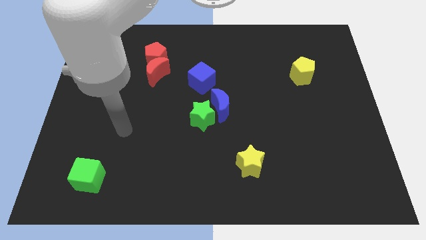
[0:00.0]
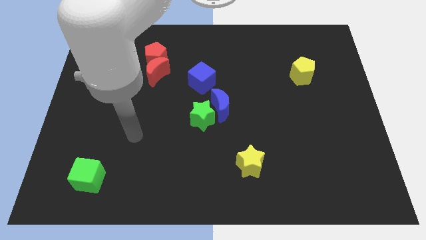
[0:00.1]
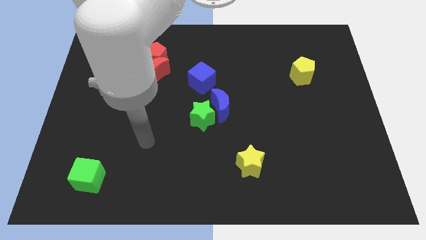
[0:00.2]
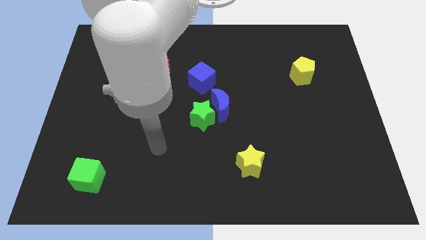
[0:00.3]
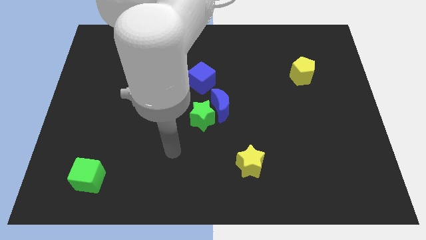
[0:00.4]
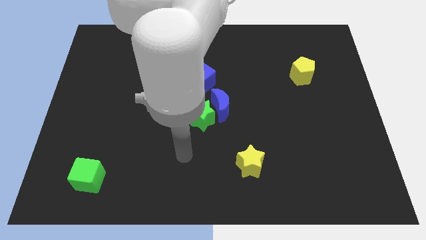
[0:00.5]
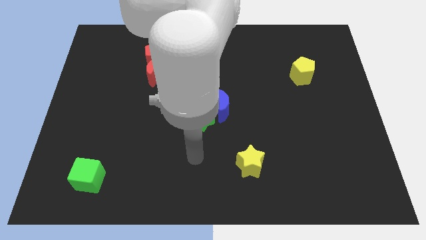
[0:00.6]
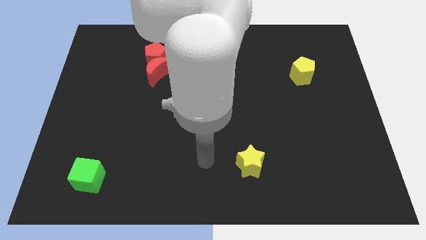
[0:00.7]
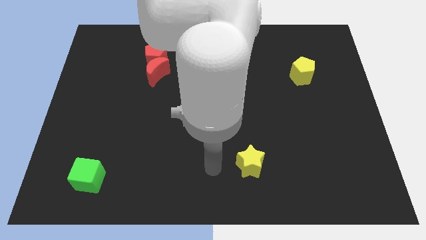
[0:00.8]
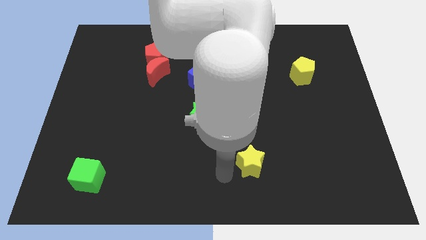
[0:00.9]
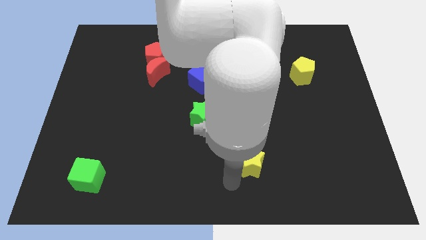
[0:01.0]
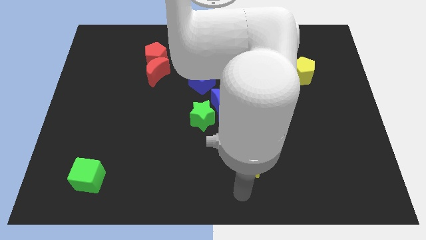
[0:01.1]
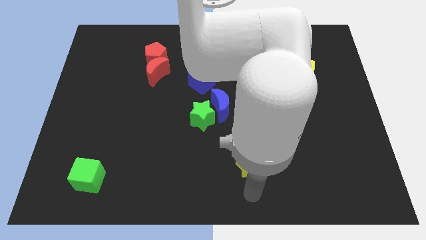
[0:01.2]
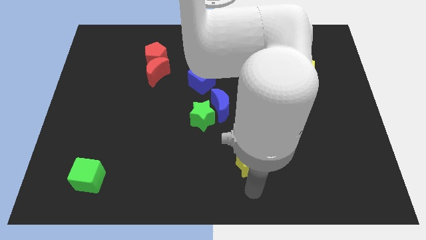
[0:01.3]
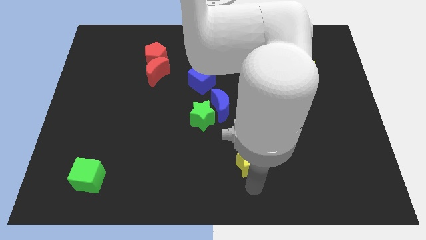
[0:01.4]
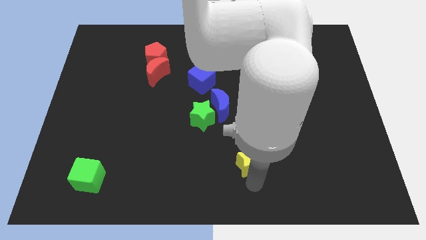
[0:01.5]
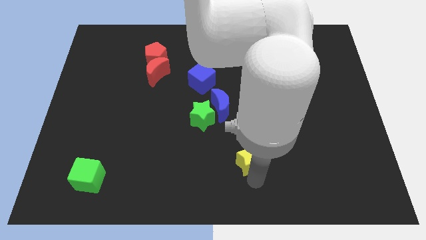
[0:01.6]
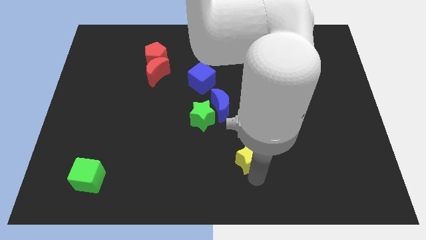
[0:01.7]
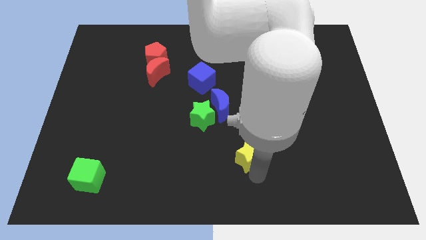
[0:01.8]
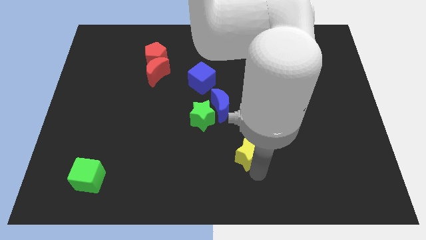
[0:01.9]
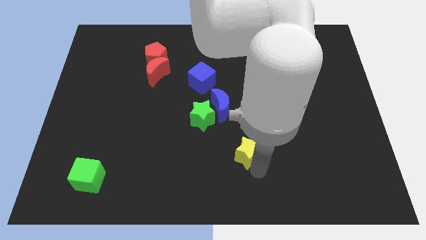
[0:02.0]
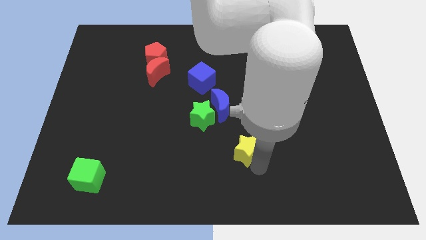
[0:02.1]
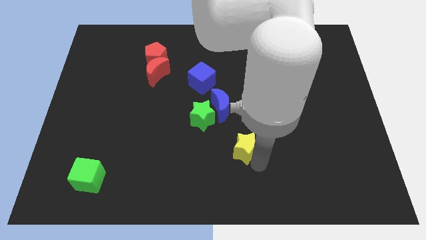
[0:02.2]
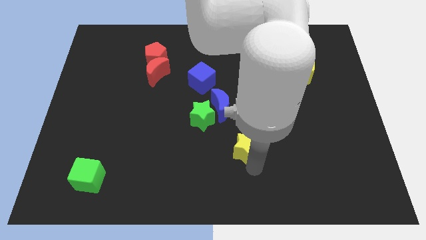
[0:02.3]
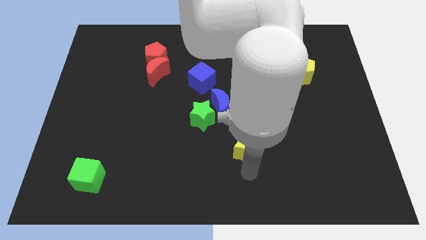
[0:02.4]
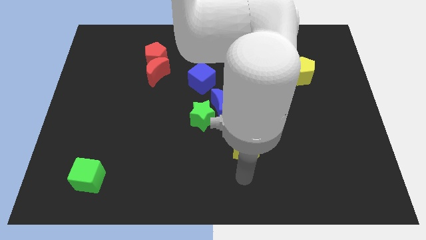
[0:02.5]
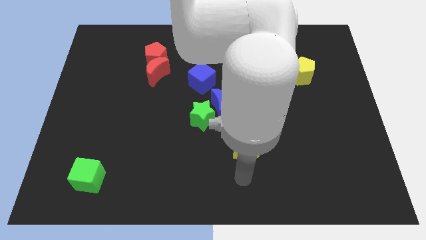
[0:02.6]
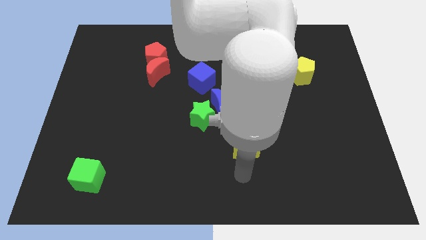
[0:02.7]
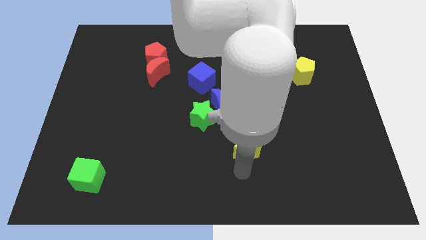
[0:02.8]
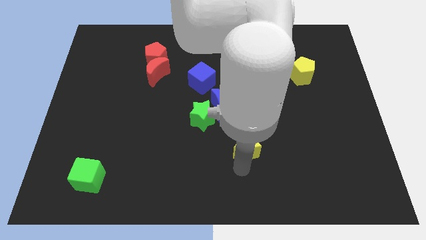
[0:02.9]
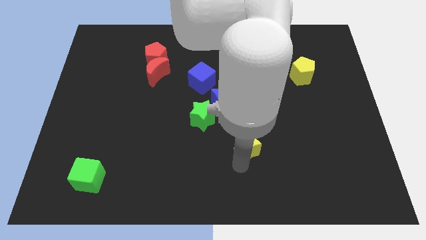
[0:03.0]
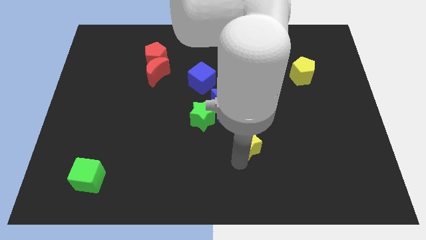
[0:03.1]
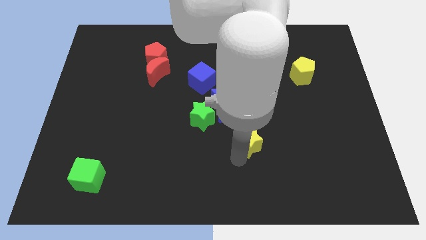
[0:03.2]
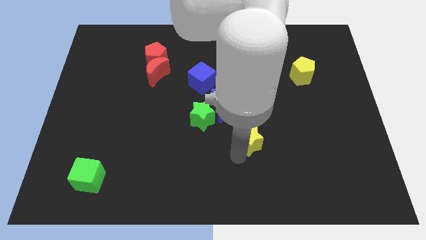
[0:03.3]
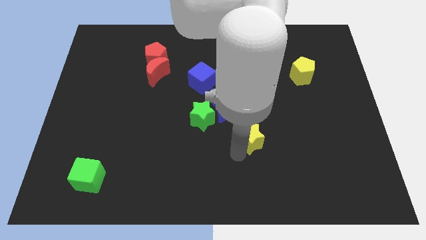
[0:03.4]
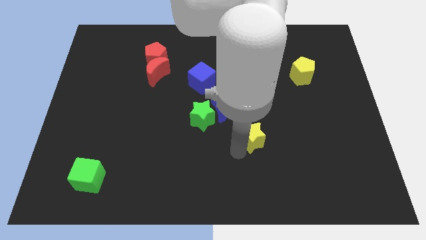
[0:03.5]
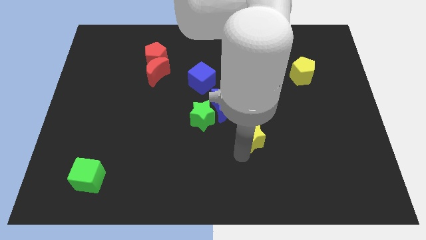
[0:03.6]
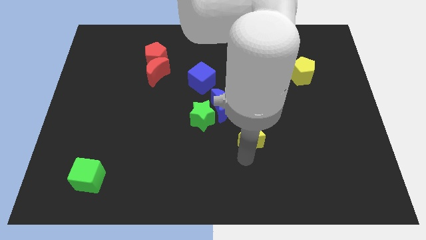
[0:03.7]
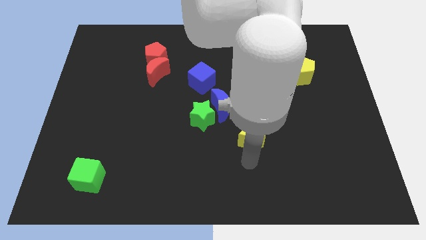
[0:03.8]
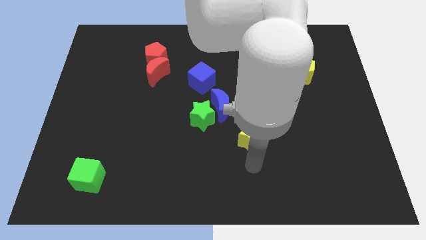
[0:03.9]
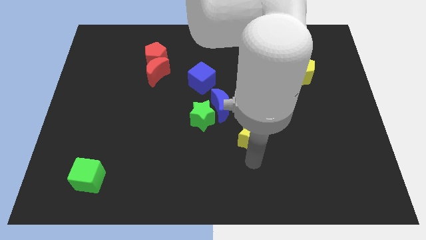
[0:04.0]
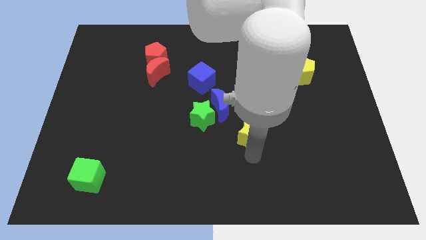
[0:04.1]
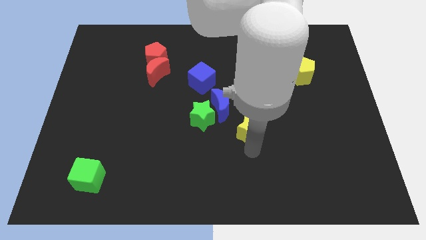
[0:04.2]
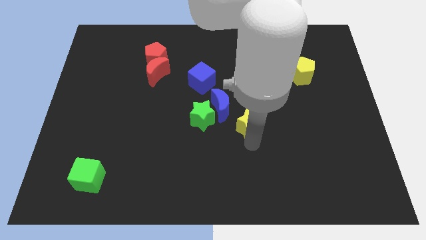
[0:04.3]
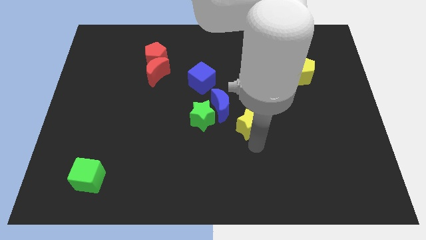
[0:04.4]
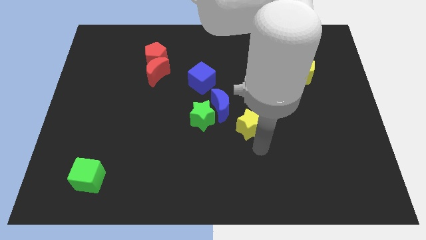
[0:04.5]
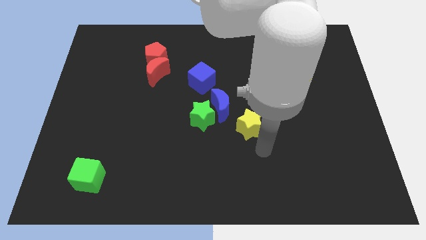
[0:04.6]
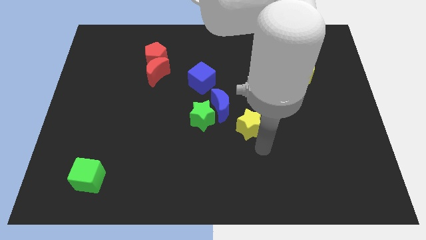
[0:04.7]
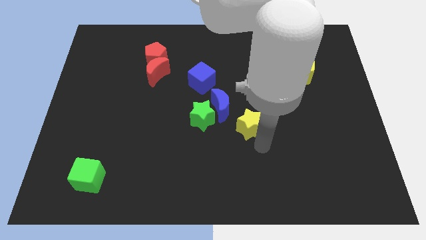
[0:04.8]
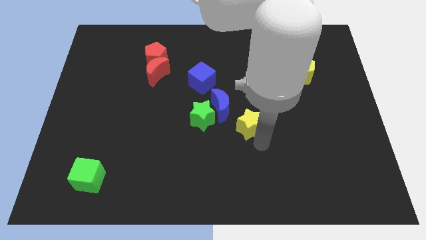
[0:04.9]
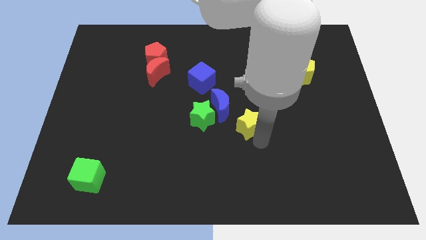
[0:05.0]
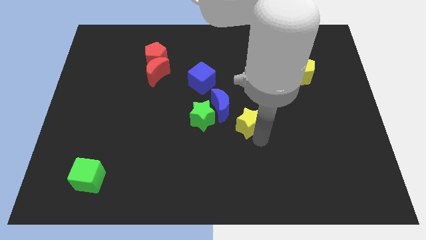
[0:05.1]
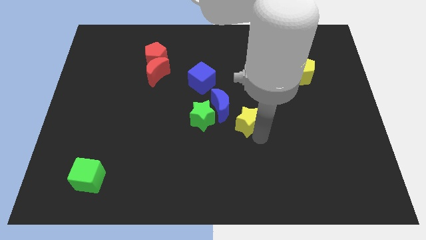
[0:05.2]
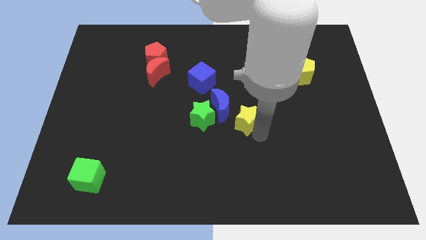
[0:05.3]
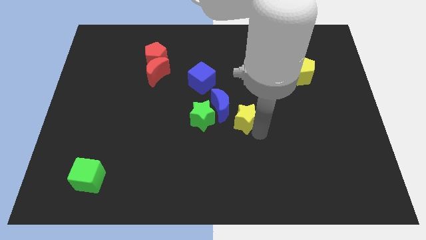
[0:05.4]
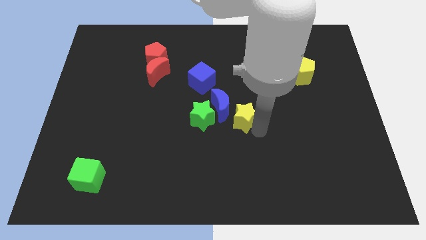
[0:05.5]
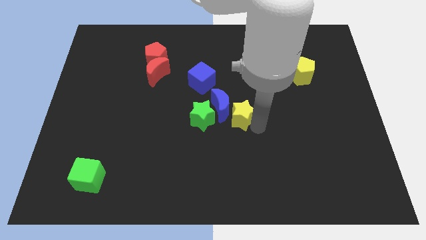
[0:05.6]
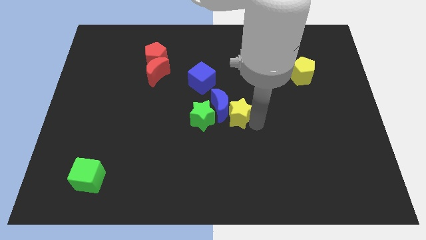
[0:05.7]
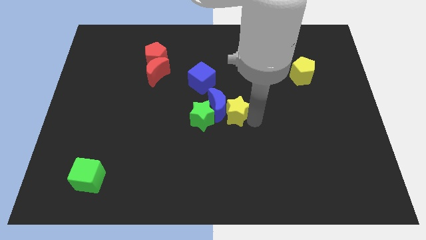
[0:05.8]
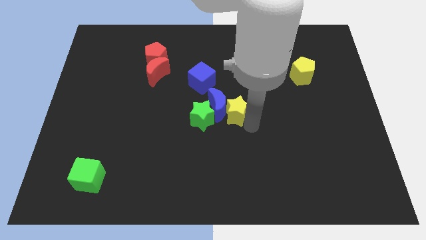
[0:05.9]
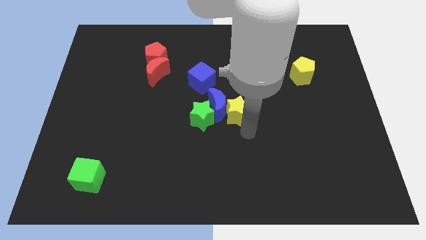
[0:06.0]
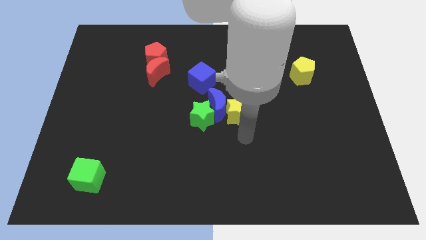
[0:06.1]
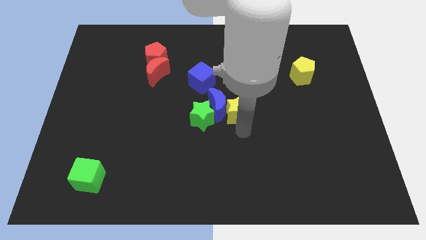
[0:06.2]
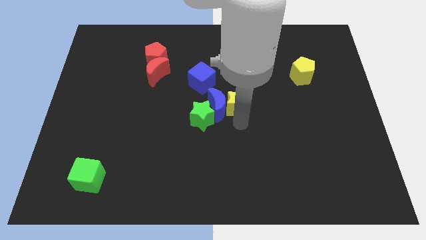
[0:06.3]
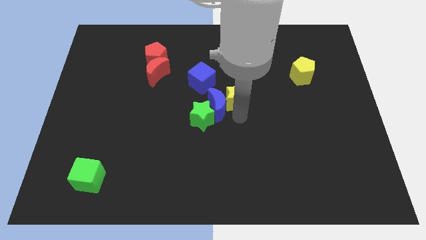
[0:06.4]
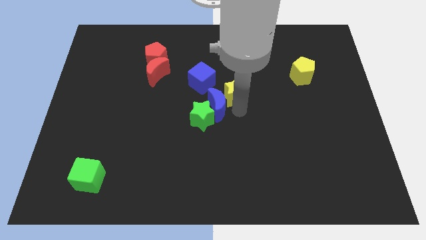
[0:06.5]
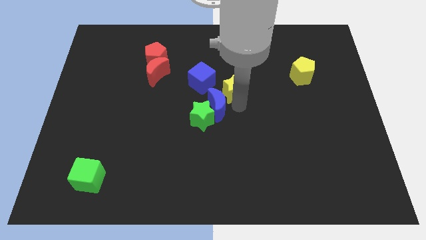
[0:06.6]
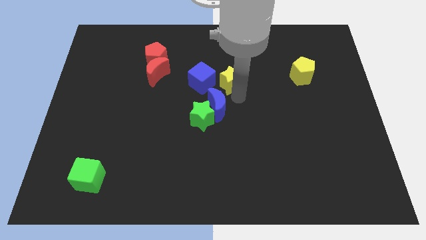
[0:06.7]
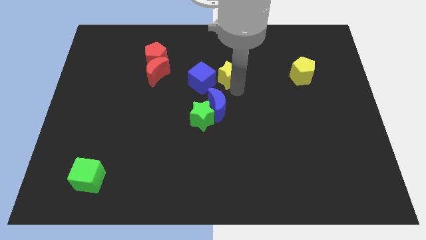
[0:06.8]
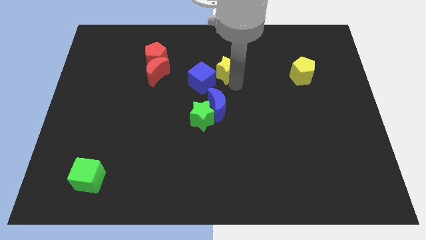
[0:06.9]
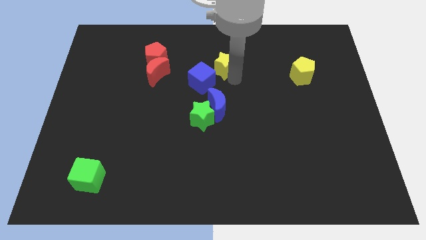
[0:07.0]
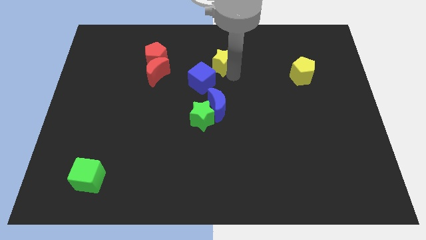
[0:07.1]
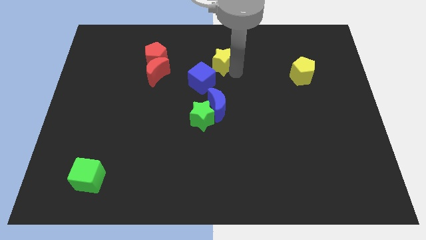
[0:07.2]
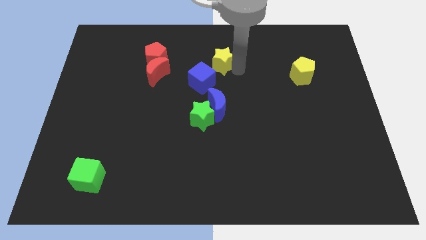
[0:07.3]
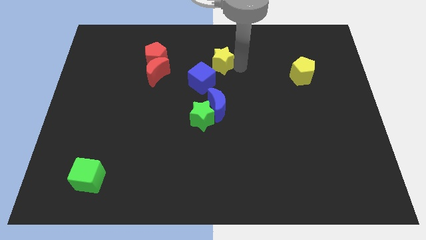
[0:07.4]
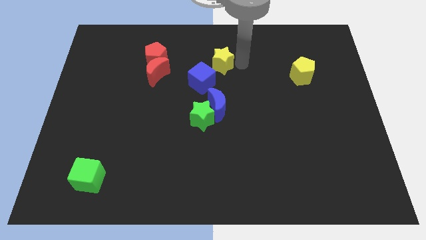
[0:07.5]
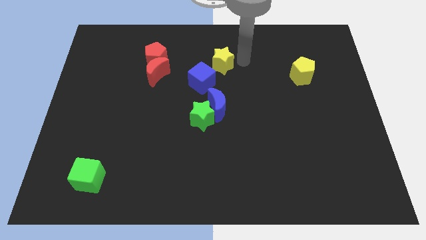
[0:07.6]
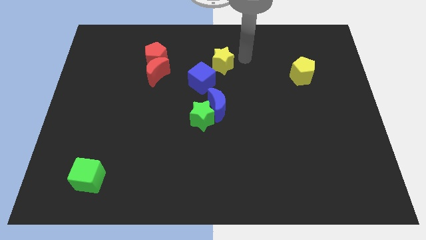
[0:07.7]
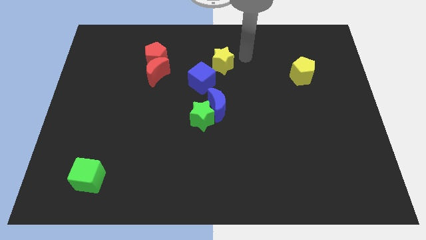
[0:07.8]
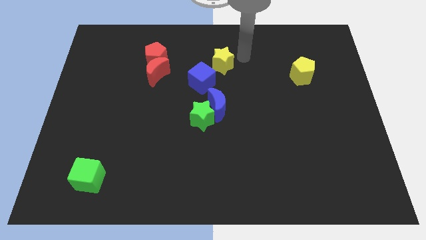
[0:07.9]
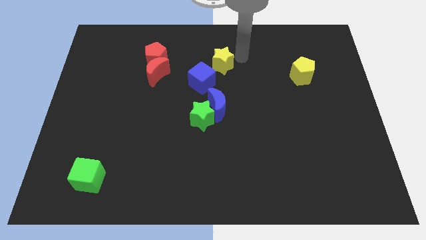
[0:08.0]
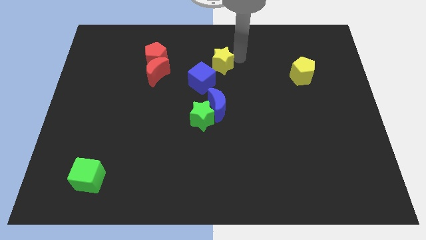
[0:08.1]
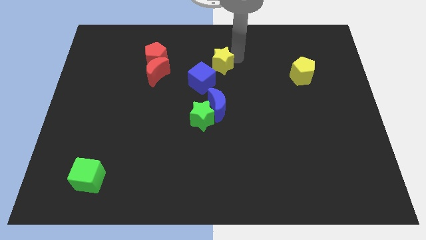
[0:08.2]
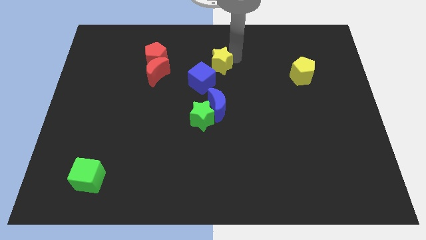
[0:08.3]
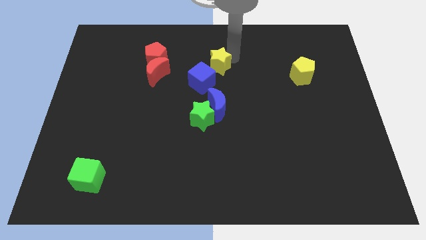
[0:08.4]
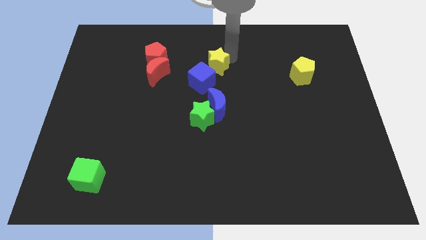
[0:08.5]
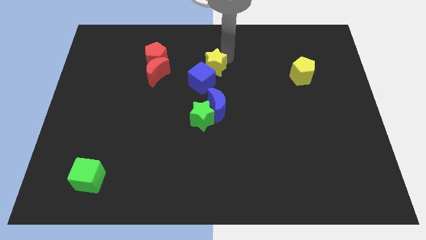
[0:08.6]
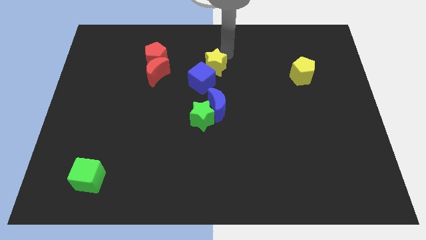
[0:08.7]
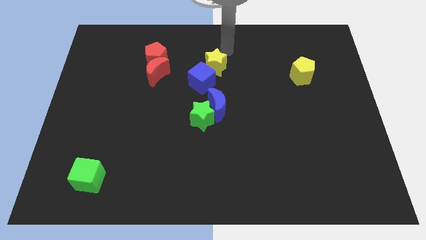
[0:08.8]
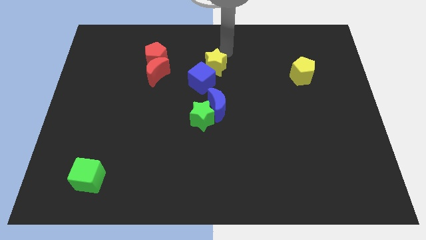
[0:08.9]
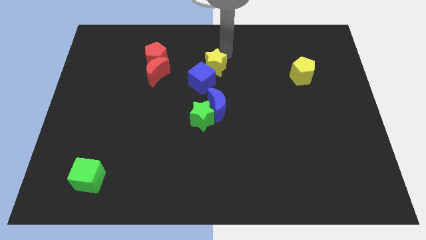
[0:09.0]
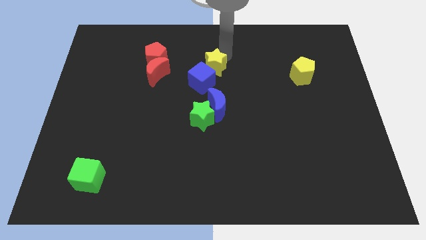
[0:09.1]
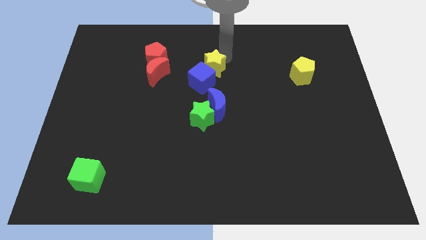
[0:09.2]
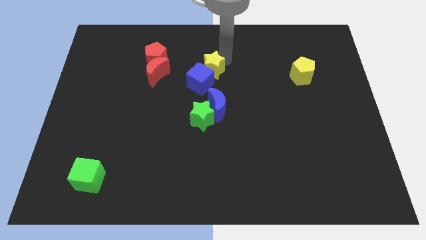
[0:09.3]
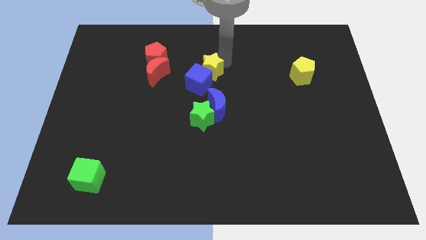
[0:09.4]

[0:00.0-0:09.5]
push the yellow star above the green star
